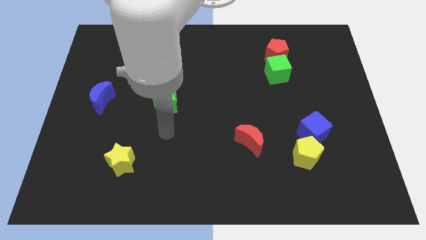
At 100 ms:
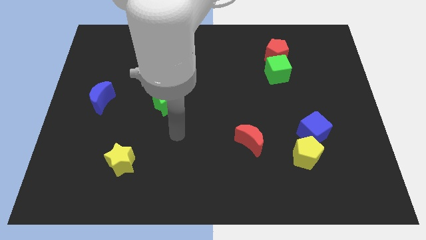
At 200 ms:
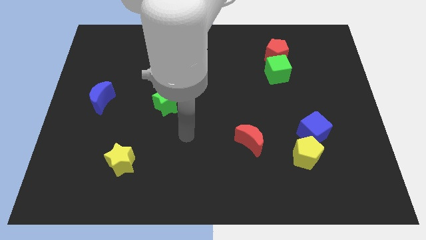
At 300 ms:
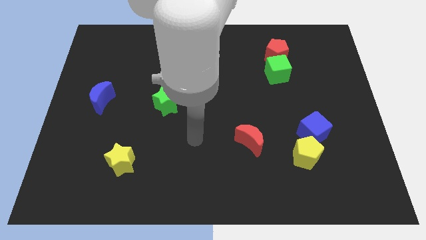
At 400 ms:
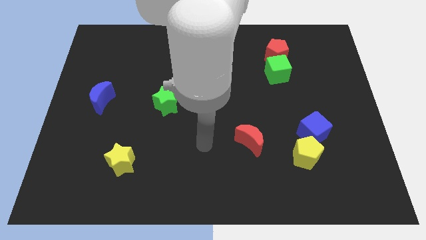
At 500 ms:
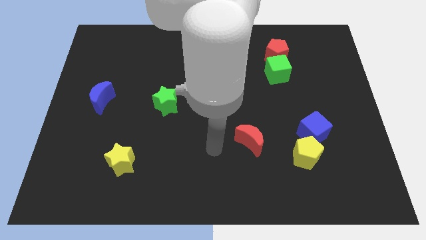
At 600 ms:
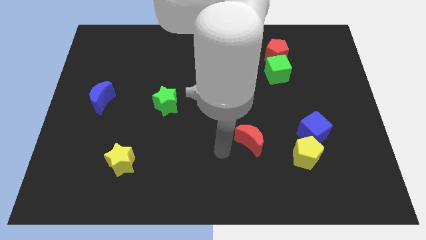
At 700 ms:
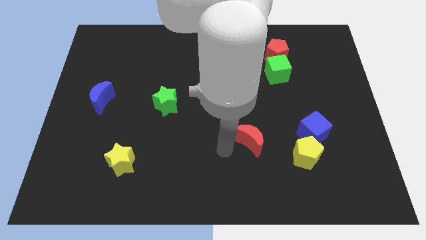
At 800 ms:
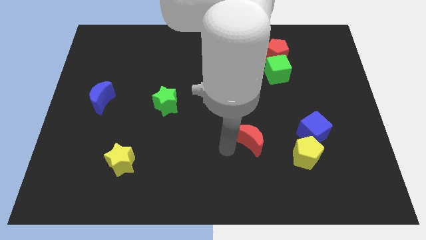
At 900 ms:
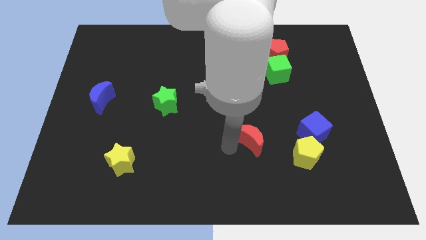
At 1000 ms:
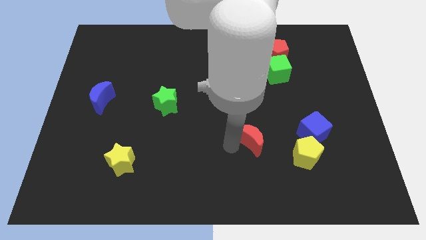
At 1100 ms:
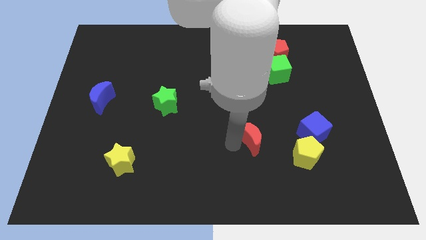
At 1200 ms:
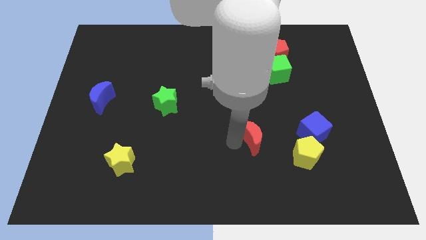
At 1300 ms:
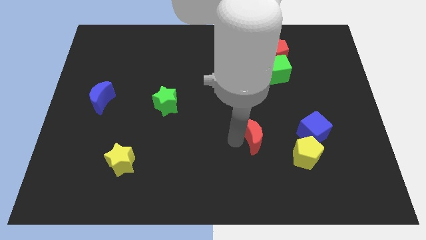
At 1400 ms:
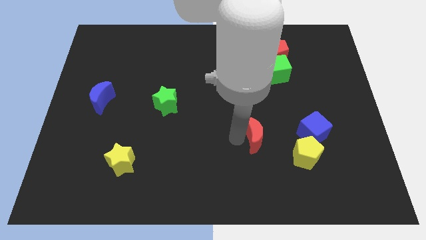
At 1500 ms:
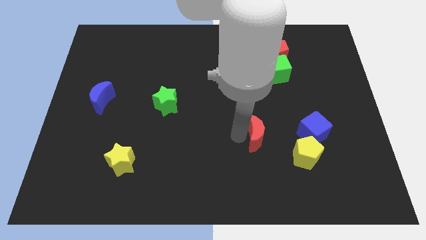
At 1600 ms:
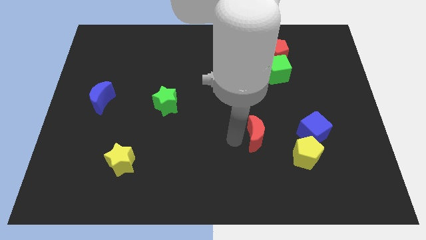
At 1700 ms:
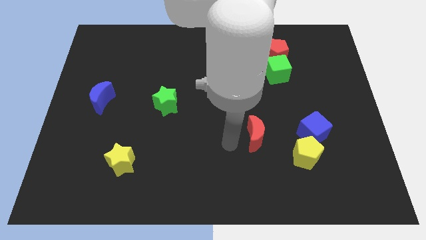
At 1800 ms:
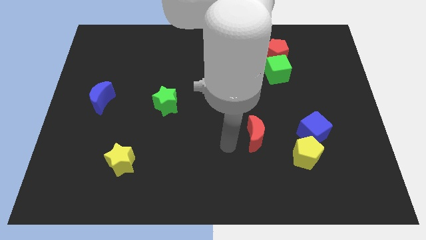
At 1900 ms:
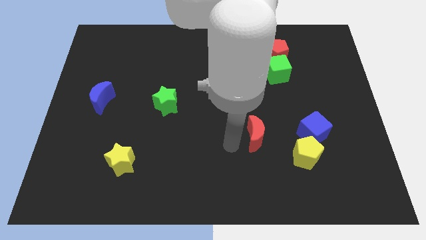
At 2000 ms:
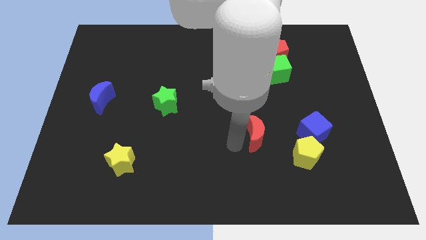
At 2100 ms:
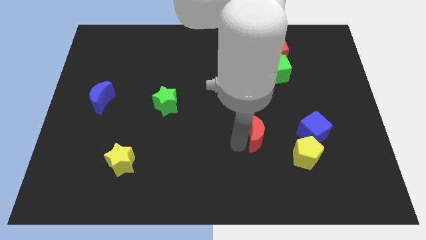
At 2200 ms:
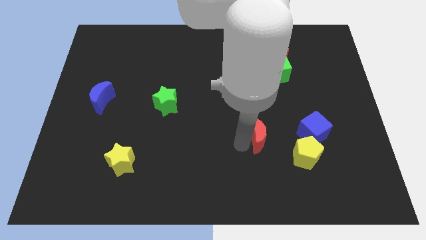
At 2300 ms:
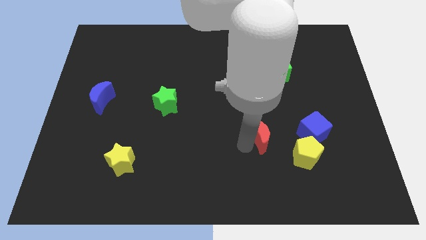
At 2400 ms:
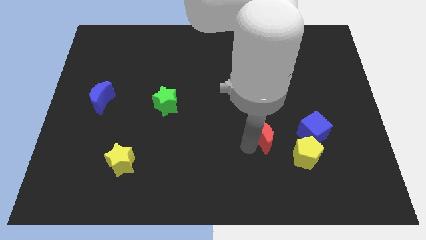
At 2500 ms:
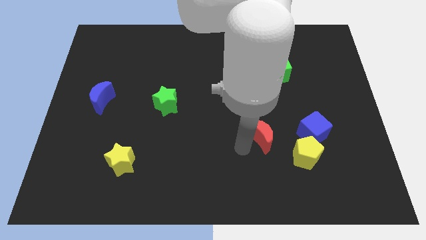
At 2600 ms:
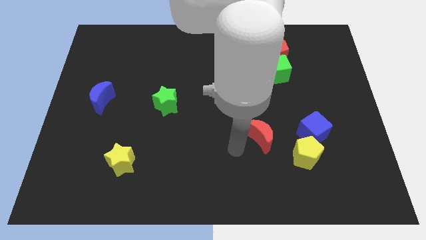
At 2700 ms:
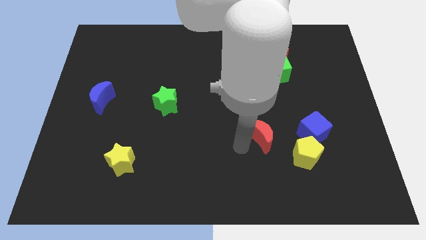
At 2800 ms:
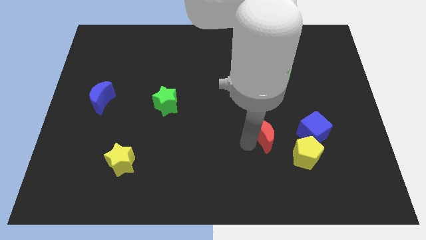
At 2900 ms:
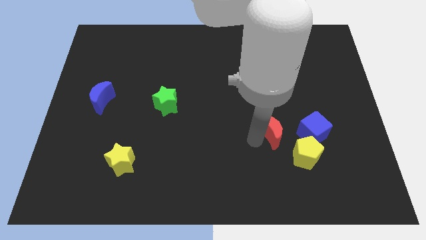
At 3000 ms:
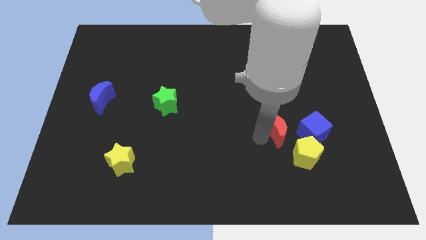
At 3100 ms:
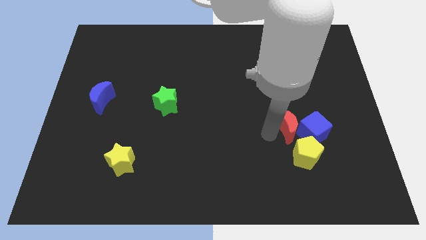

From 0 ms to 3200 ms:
slightly push the red moon right

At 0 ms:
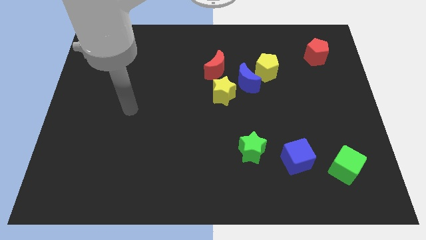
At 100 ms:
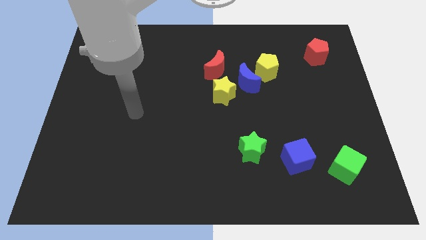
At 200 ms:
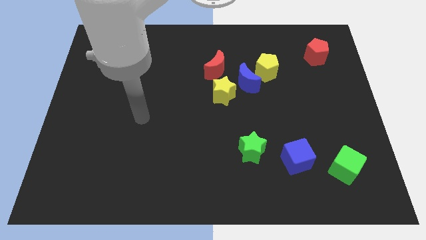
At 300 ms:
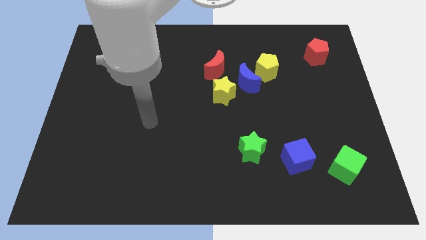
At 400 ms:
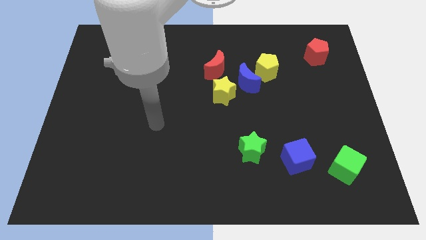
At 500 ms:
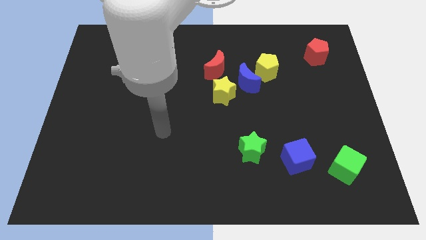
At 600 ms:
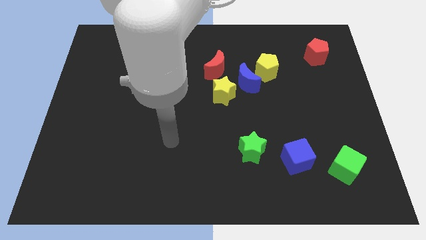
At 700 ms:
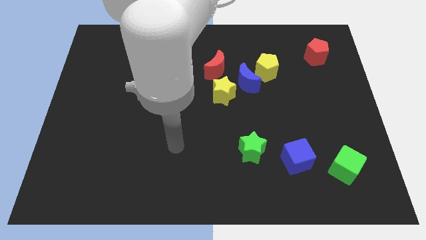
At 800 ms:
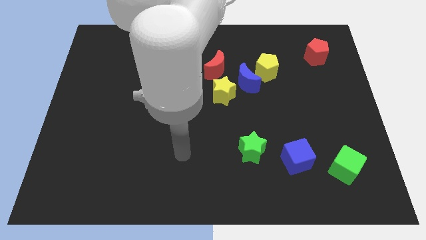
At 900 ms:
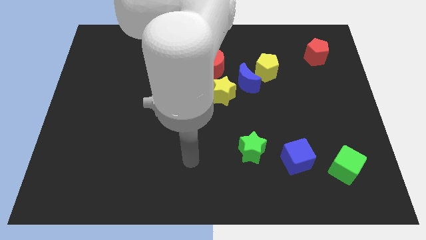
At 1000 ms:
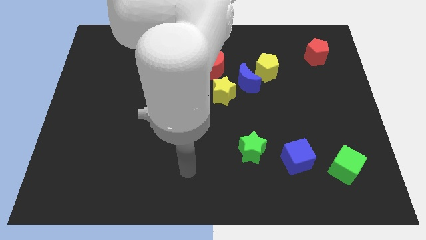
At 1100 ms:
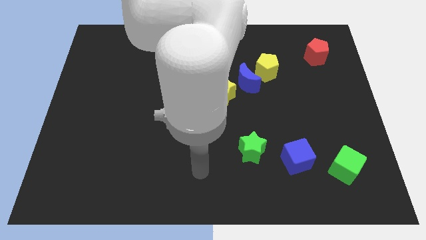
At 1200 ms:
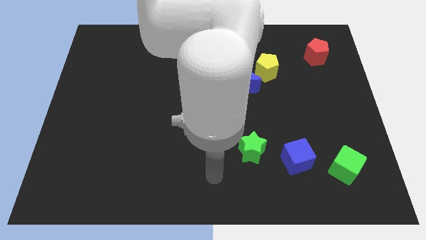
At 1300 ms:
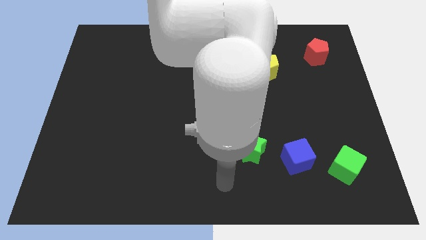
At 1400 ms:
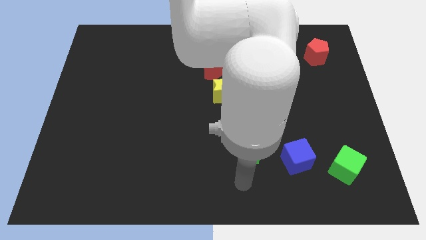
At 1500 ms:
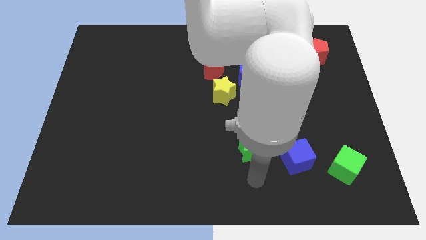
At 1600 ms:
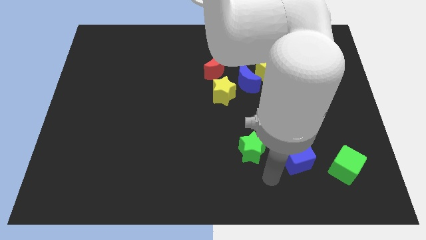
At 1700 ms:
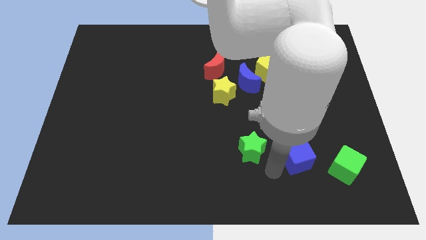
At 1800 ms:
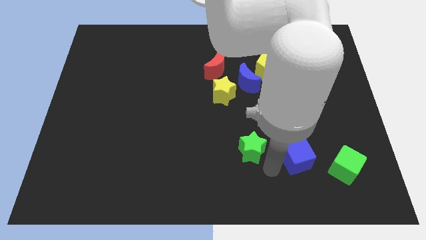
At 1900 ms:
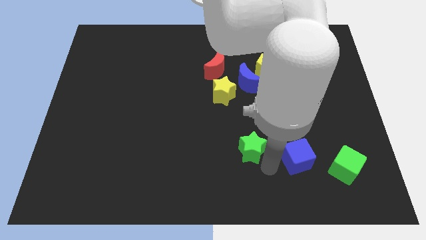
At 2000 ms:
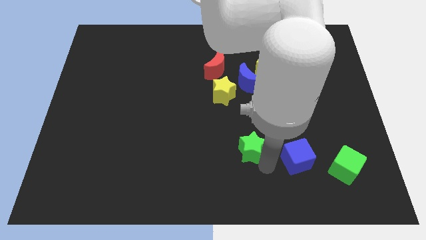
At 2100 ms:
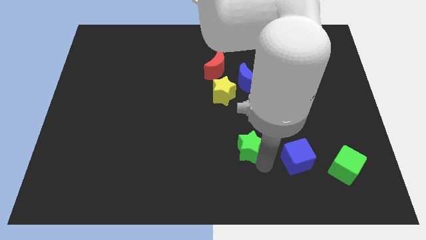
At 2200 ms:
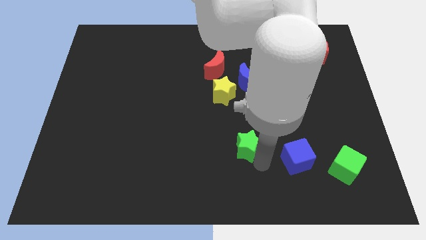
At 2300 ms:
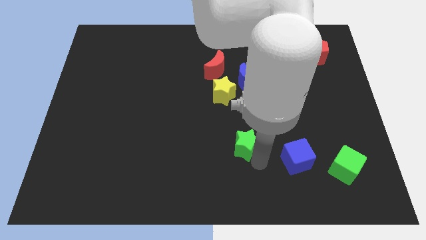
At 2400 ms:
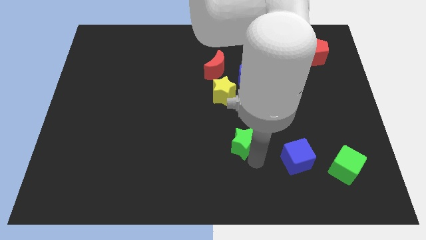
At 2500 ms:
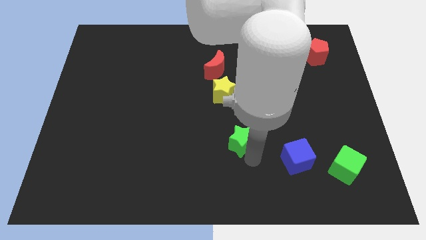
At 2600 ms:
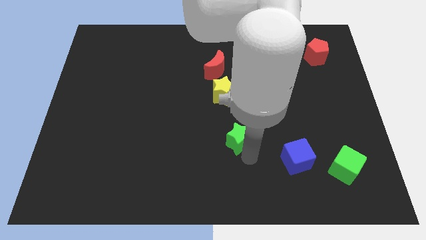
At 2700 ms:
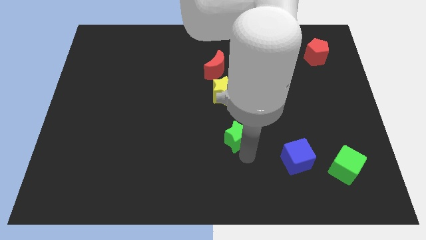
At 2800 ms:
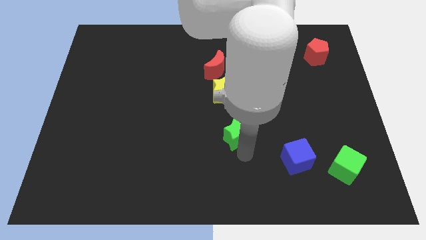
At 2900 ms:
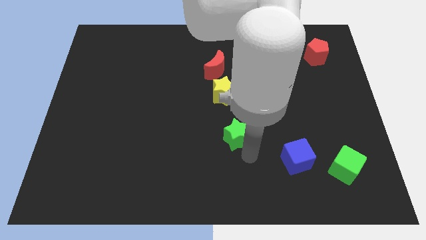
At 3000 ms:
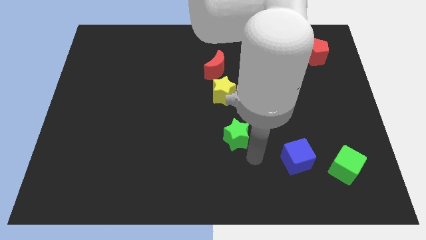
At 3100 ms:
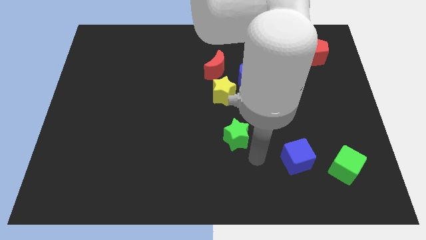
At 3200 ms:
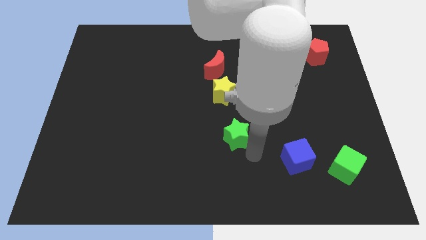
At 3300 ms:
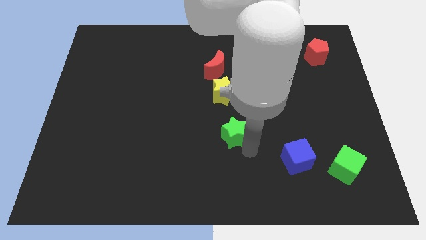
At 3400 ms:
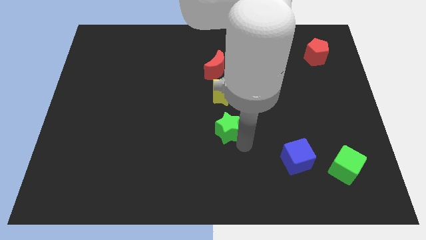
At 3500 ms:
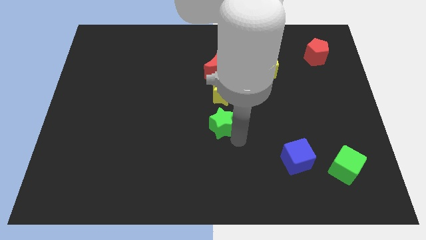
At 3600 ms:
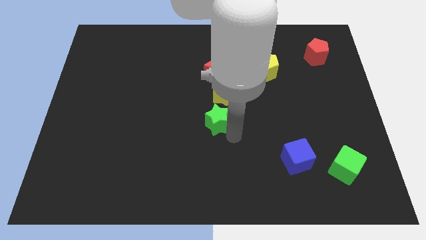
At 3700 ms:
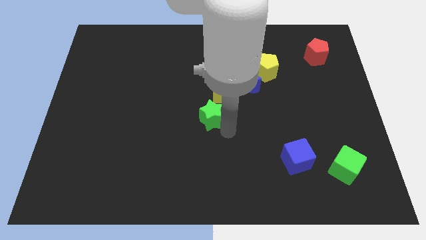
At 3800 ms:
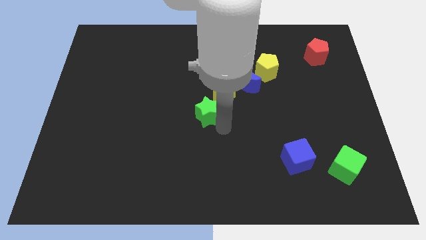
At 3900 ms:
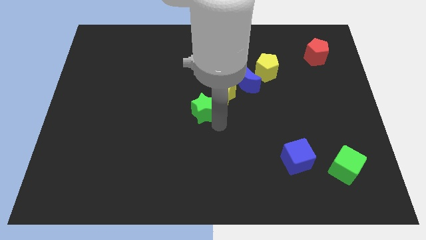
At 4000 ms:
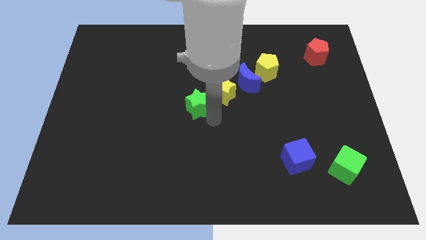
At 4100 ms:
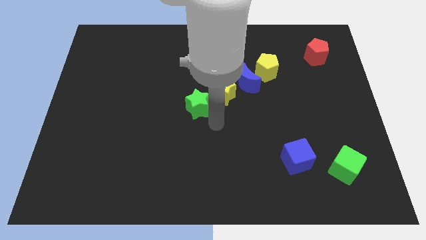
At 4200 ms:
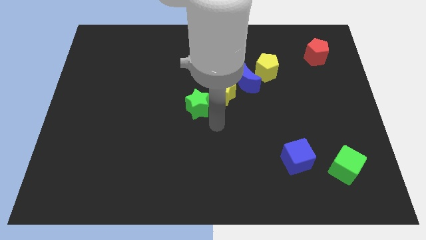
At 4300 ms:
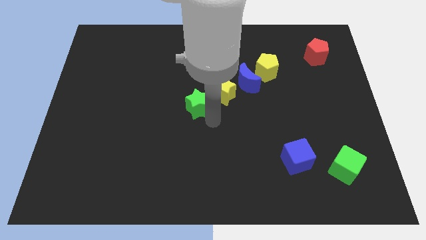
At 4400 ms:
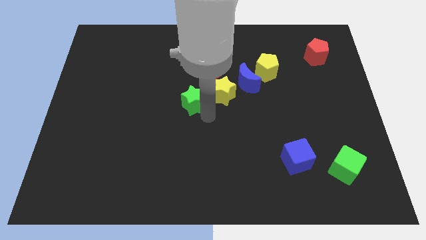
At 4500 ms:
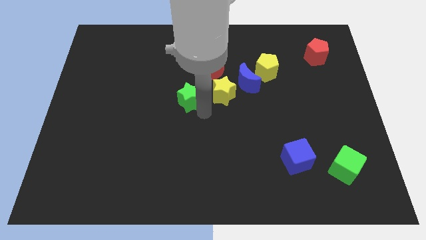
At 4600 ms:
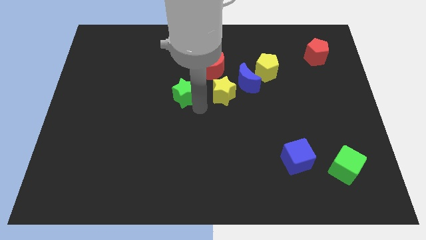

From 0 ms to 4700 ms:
push the green star diagonally upwards and to the left
